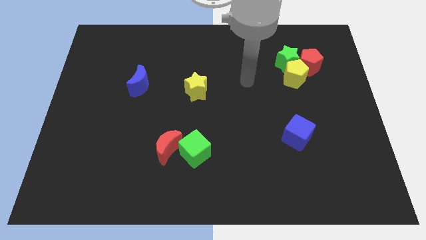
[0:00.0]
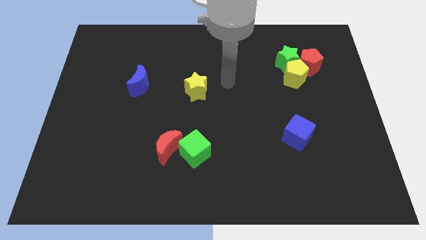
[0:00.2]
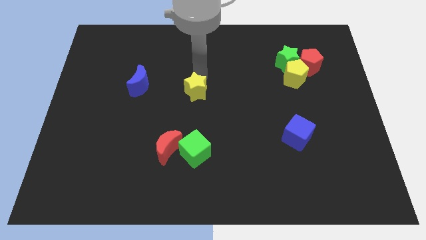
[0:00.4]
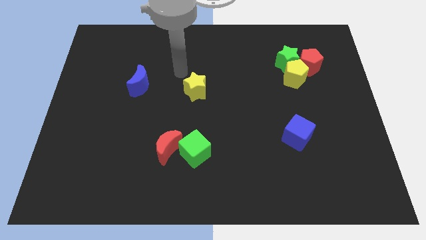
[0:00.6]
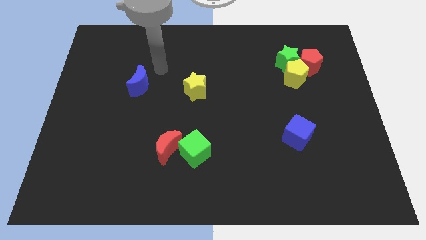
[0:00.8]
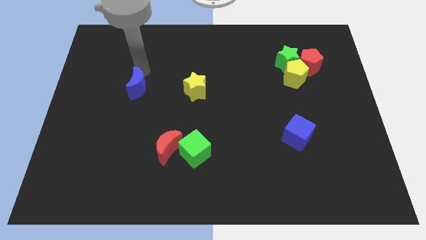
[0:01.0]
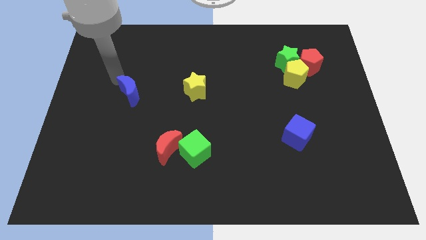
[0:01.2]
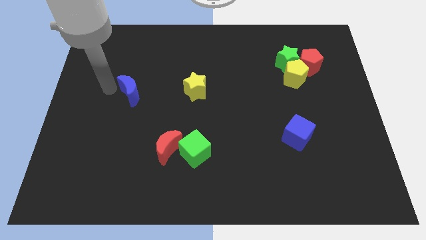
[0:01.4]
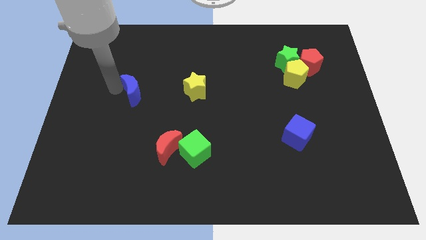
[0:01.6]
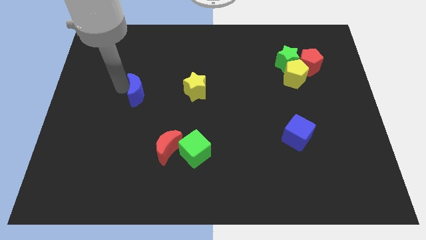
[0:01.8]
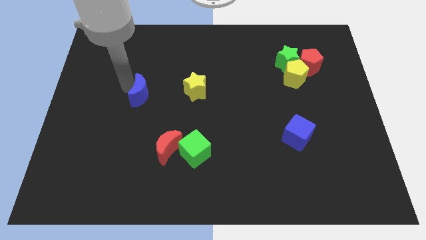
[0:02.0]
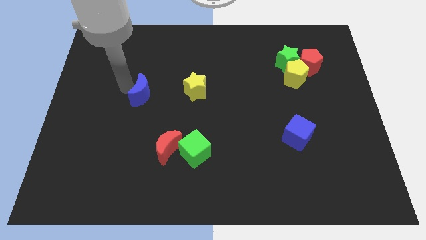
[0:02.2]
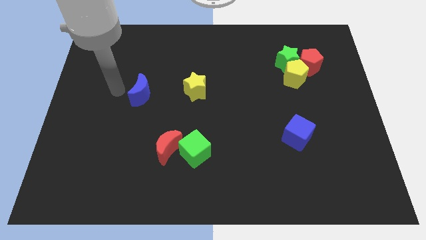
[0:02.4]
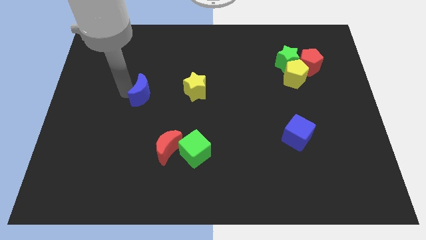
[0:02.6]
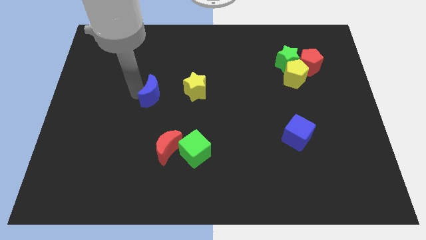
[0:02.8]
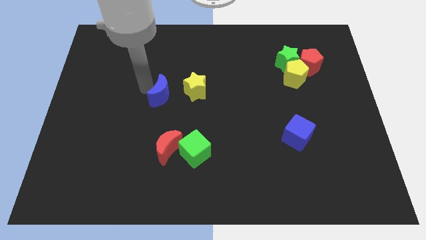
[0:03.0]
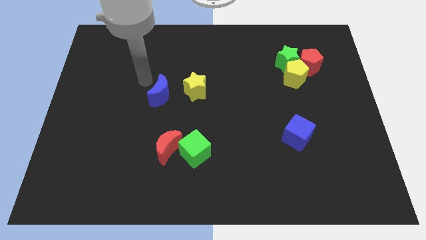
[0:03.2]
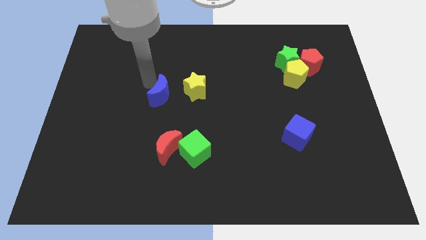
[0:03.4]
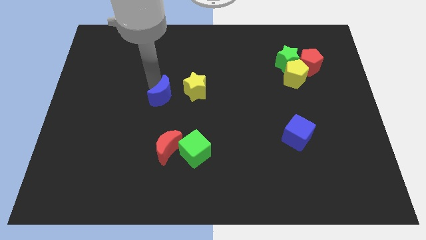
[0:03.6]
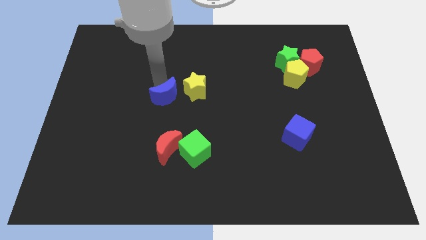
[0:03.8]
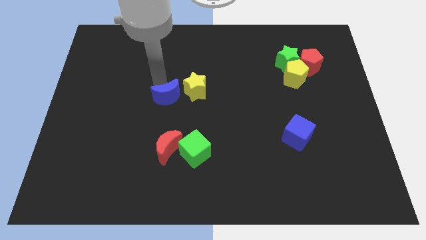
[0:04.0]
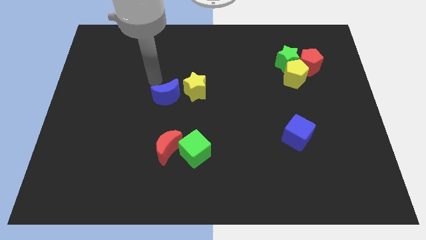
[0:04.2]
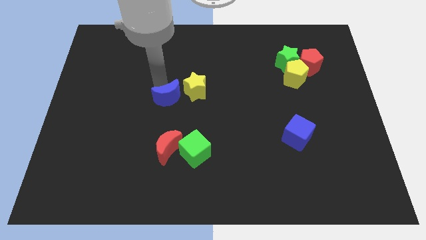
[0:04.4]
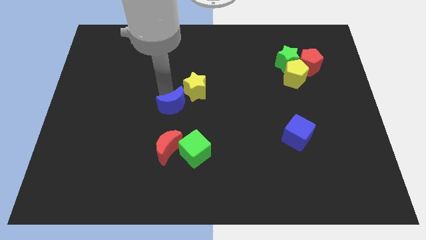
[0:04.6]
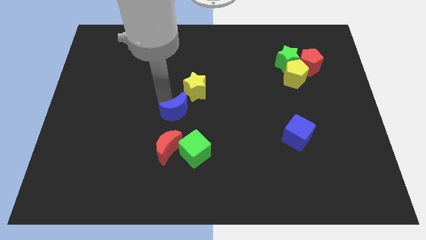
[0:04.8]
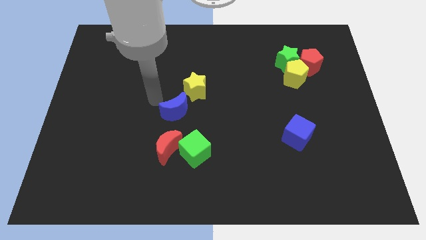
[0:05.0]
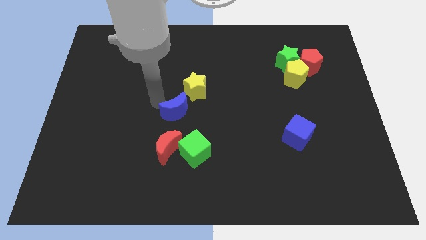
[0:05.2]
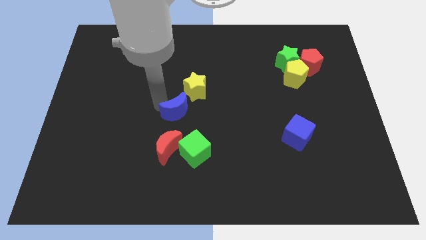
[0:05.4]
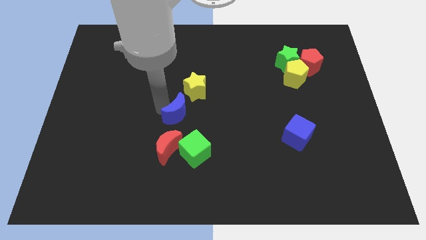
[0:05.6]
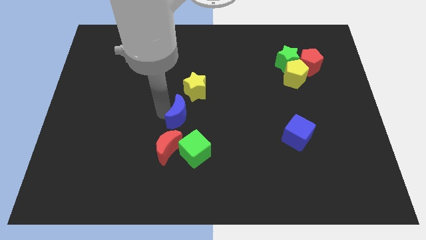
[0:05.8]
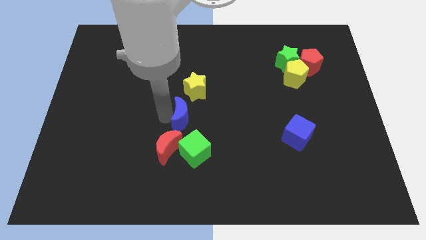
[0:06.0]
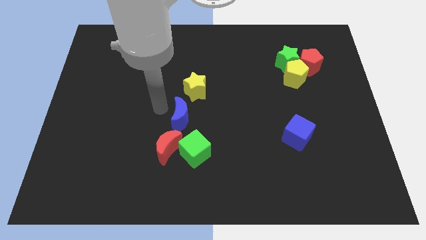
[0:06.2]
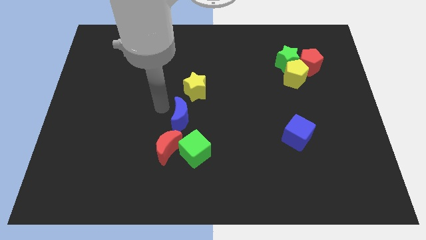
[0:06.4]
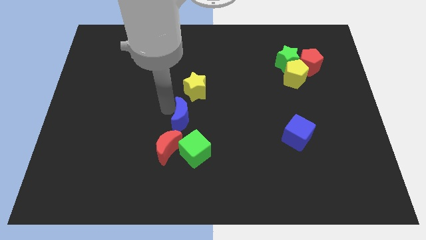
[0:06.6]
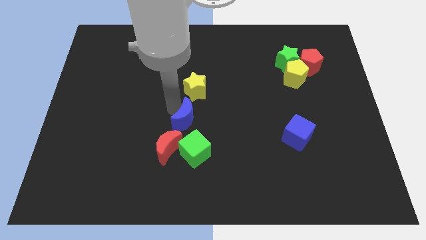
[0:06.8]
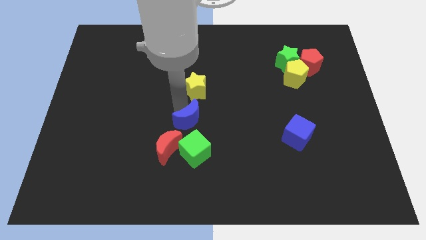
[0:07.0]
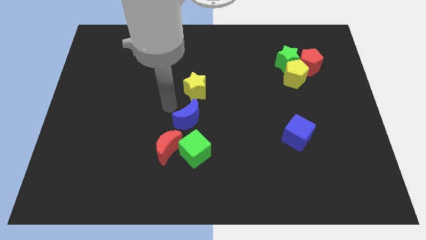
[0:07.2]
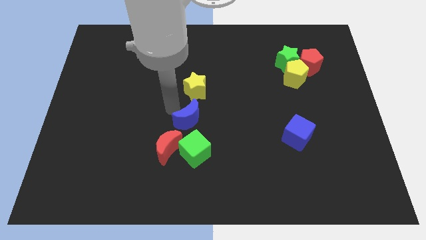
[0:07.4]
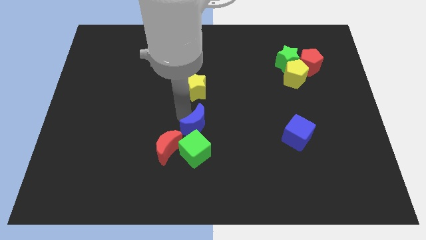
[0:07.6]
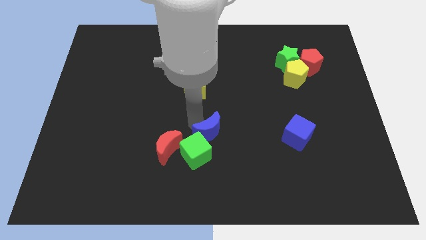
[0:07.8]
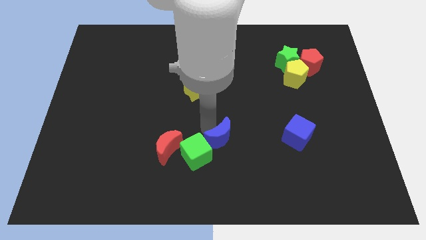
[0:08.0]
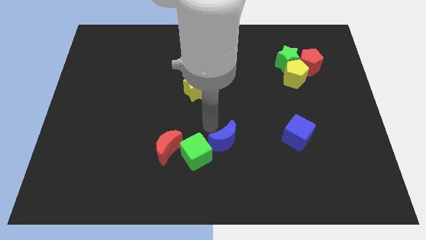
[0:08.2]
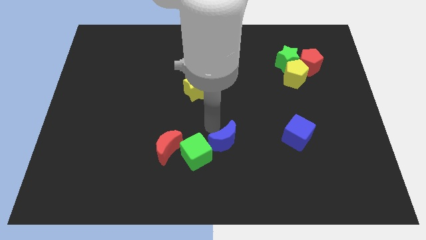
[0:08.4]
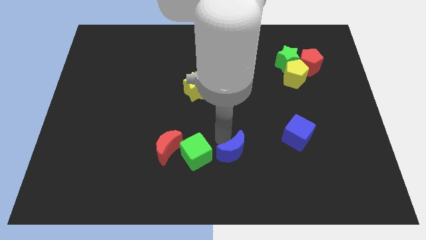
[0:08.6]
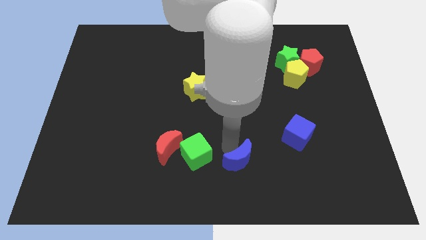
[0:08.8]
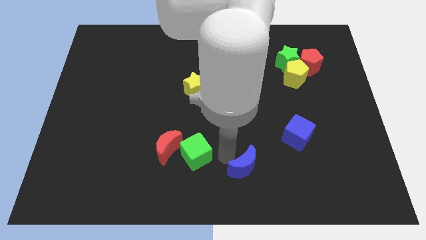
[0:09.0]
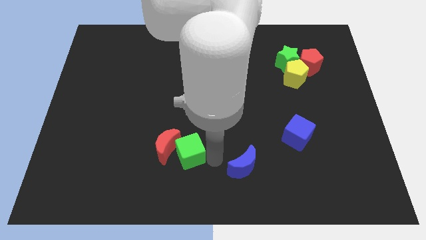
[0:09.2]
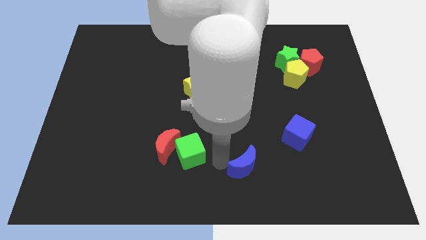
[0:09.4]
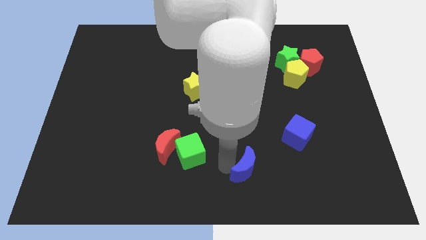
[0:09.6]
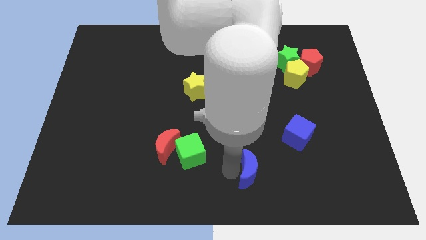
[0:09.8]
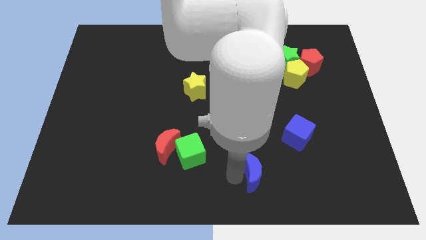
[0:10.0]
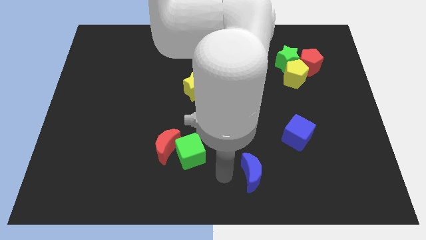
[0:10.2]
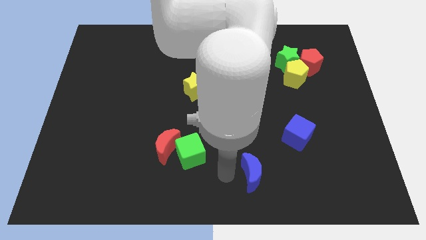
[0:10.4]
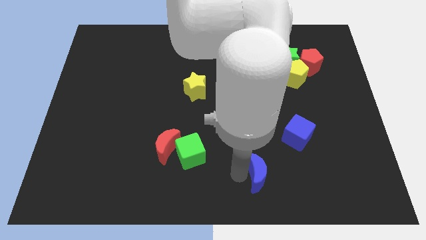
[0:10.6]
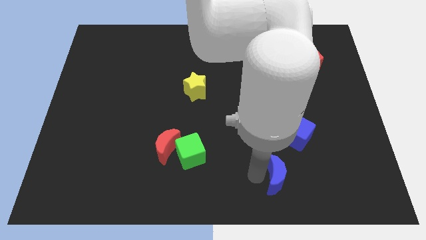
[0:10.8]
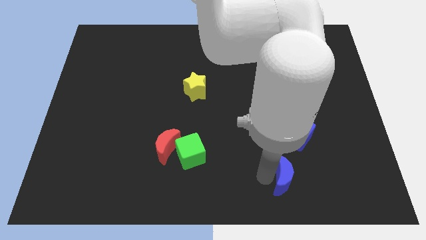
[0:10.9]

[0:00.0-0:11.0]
put the blue moon to the bottom side of the blue cube

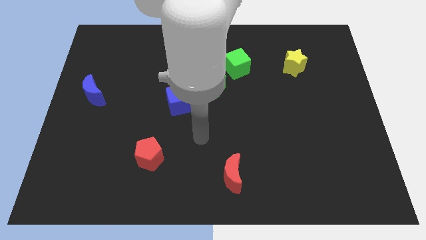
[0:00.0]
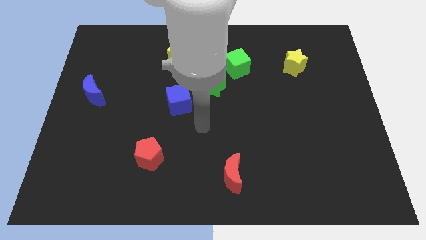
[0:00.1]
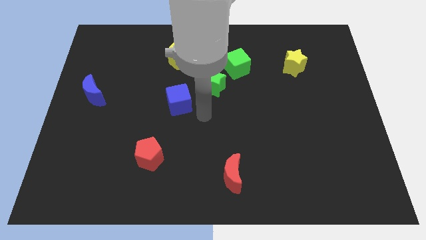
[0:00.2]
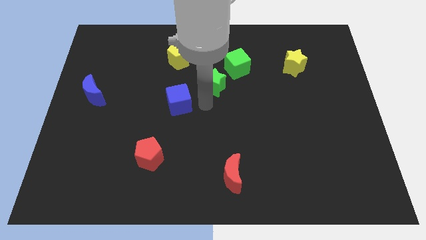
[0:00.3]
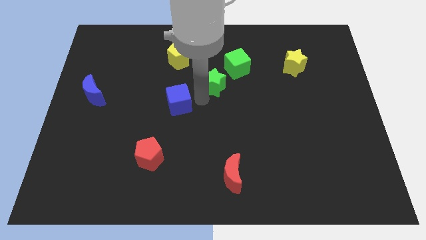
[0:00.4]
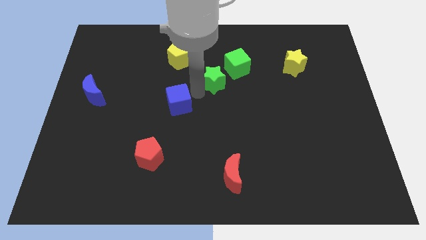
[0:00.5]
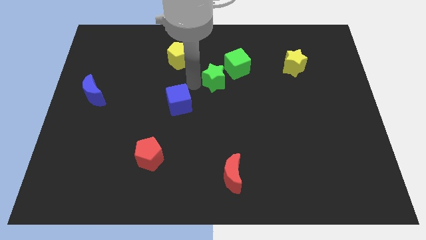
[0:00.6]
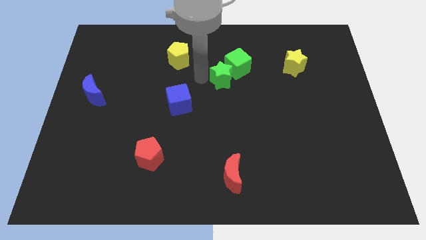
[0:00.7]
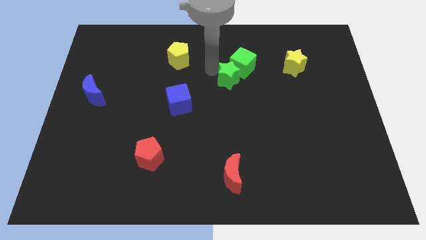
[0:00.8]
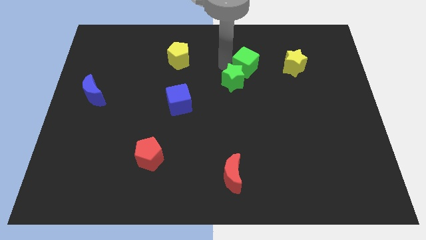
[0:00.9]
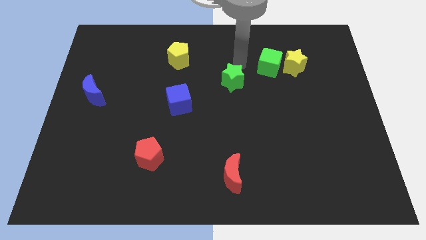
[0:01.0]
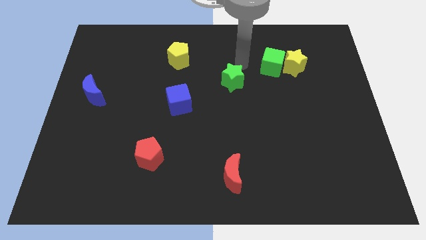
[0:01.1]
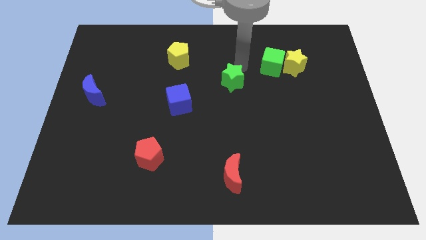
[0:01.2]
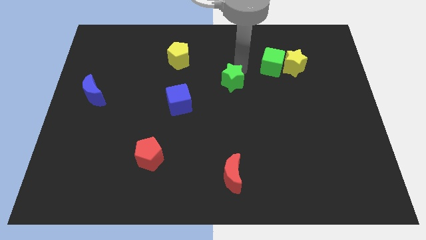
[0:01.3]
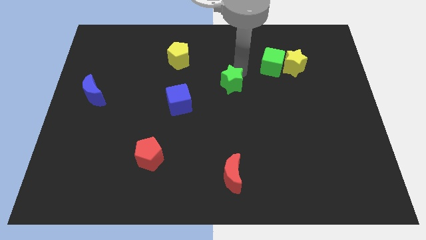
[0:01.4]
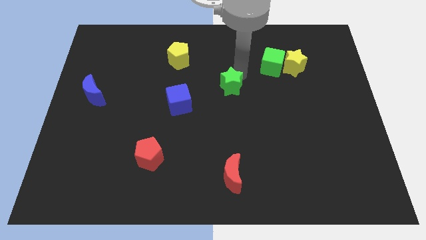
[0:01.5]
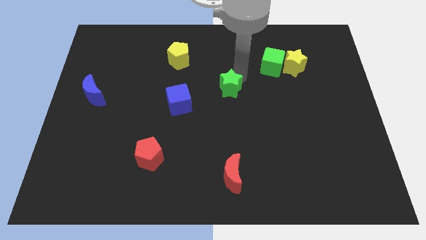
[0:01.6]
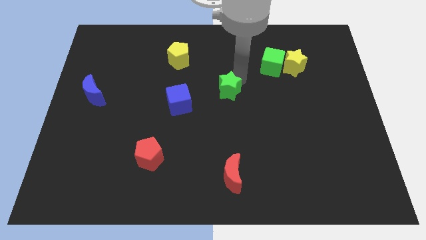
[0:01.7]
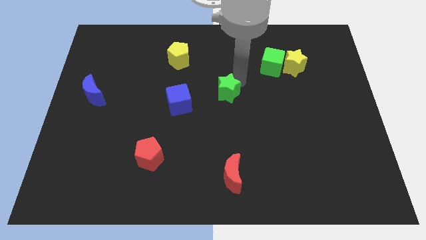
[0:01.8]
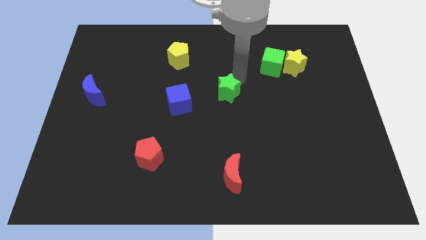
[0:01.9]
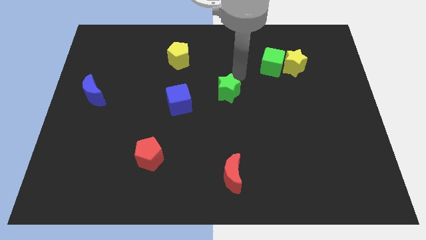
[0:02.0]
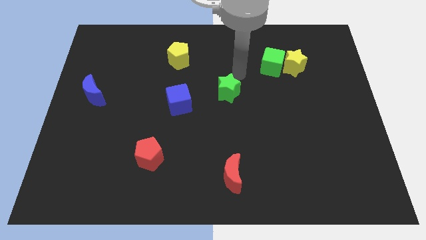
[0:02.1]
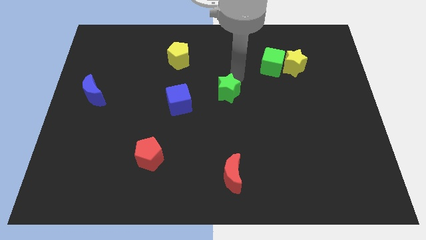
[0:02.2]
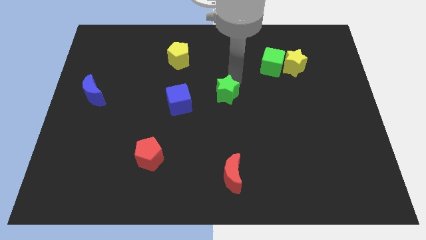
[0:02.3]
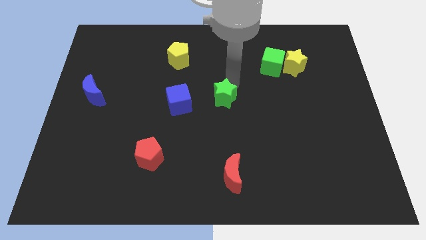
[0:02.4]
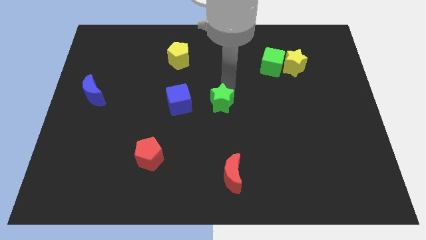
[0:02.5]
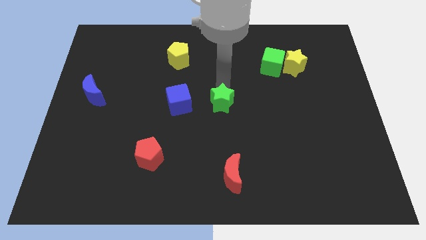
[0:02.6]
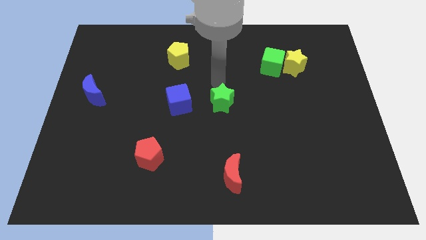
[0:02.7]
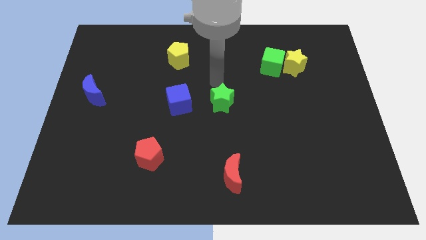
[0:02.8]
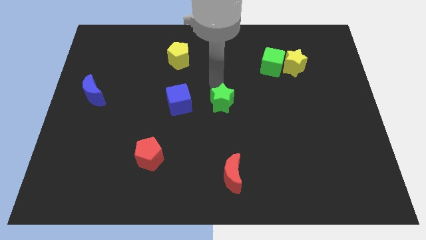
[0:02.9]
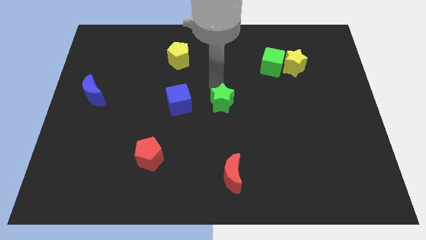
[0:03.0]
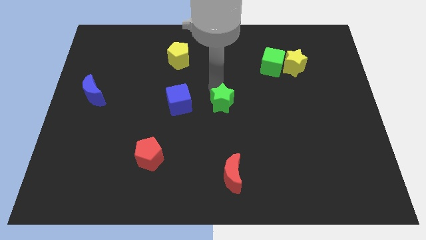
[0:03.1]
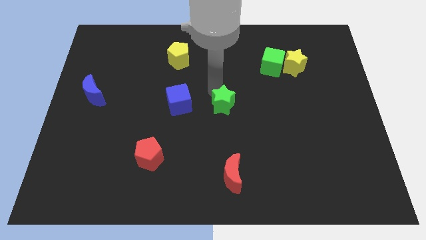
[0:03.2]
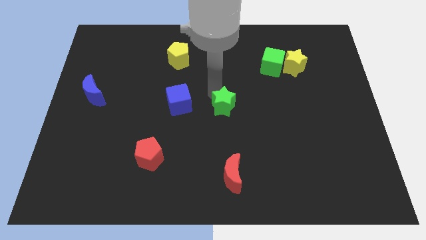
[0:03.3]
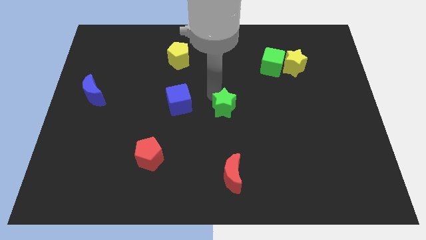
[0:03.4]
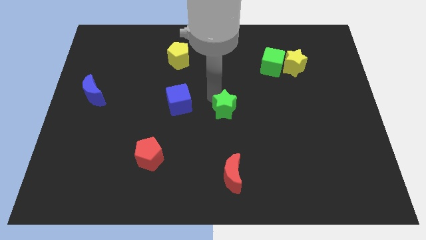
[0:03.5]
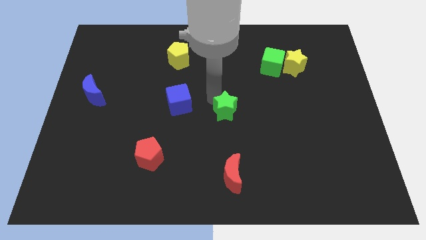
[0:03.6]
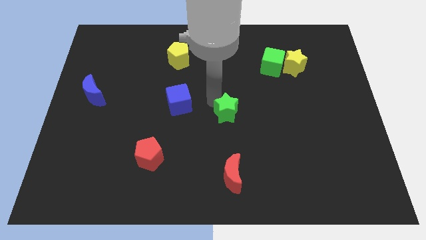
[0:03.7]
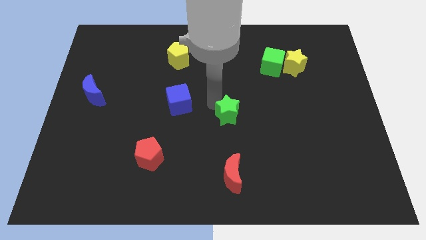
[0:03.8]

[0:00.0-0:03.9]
put the green star above the red moon
